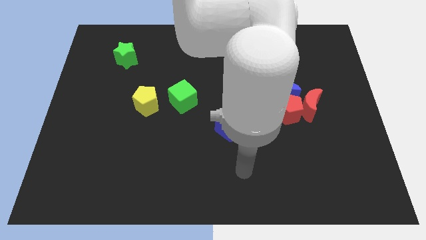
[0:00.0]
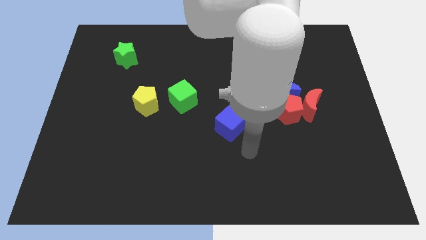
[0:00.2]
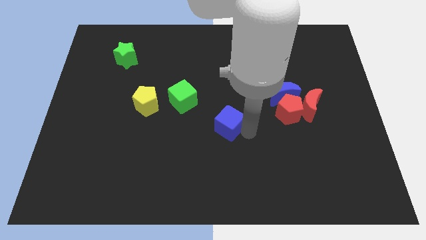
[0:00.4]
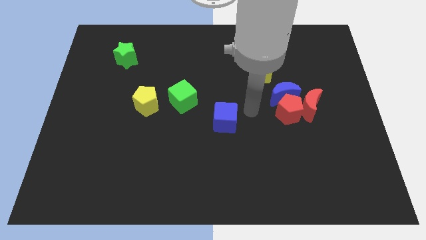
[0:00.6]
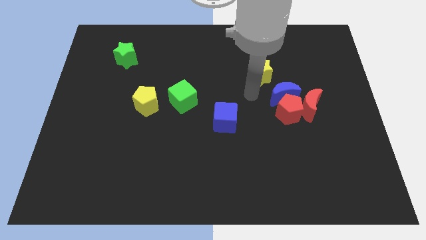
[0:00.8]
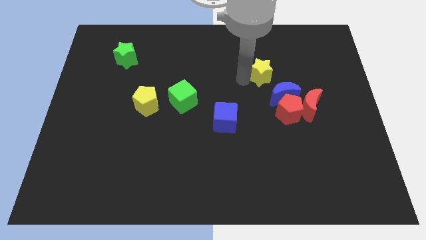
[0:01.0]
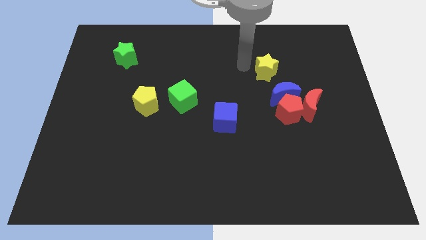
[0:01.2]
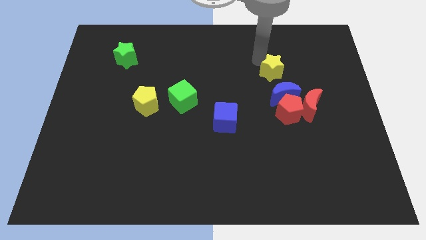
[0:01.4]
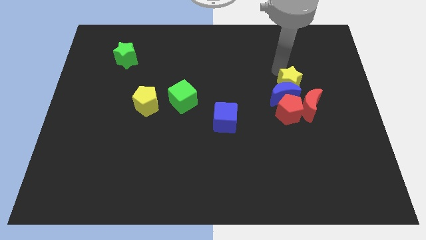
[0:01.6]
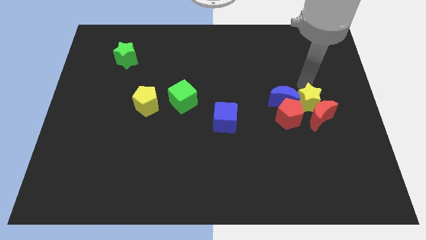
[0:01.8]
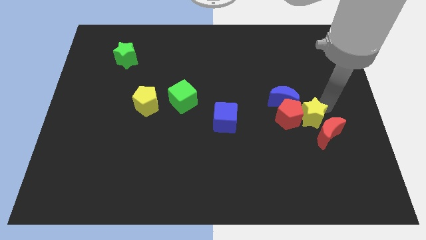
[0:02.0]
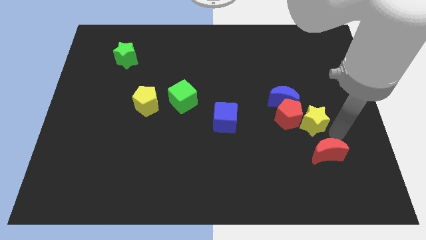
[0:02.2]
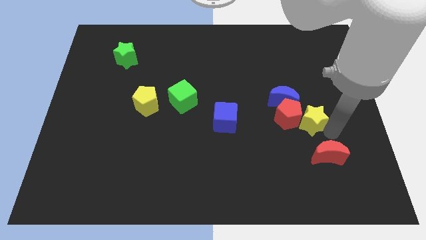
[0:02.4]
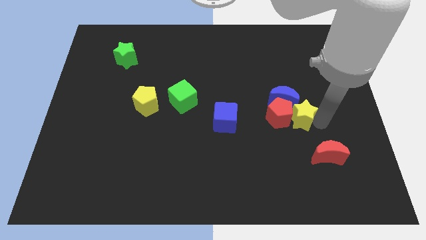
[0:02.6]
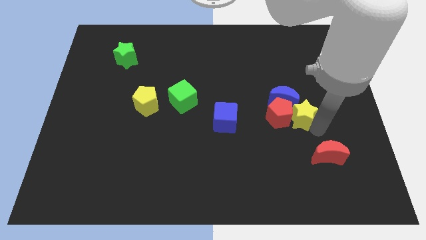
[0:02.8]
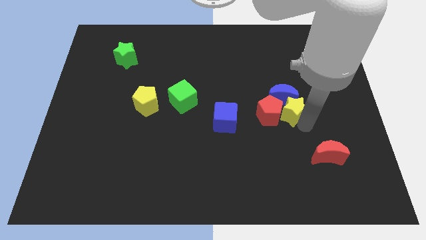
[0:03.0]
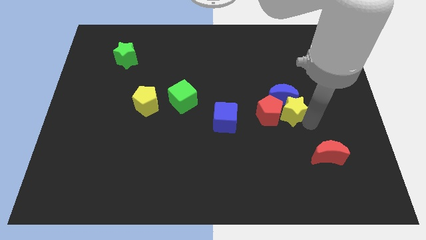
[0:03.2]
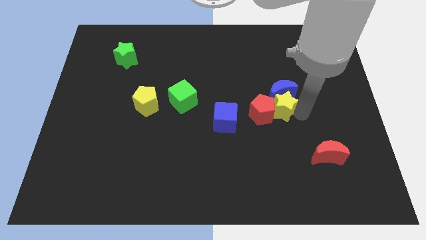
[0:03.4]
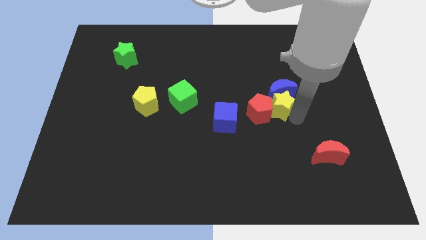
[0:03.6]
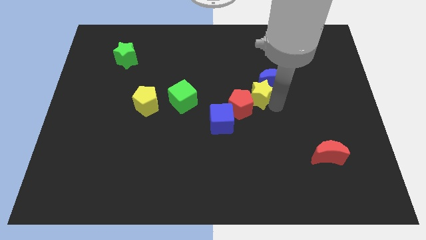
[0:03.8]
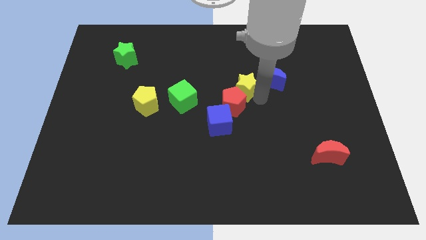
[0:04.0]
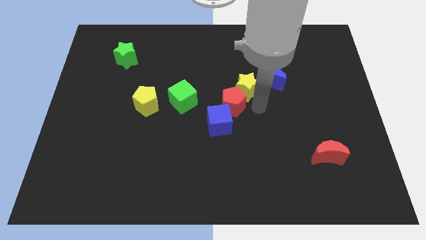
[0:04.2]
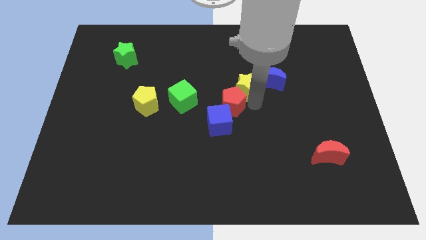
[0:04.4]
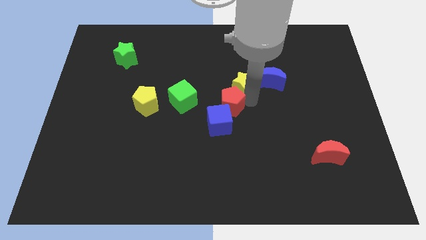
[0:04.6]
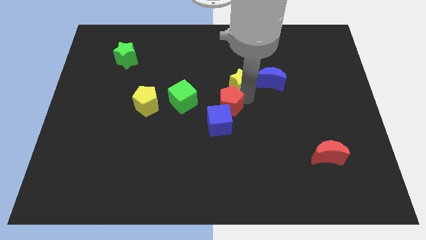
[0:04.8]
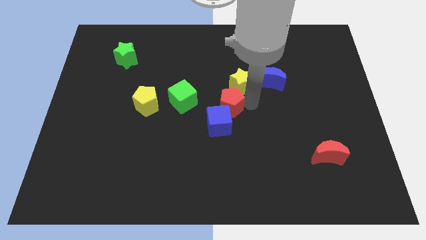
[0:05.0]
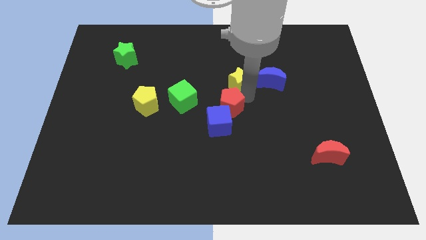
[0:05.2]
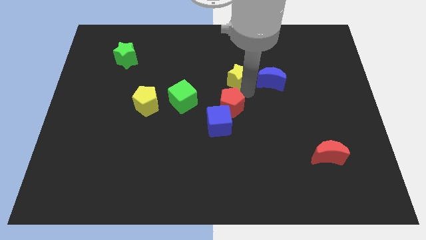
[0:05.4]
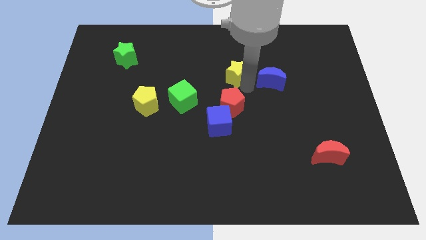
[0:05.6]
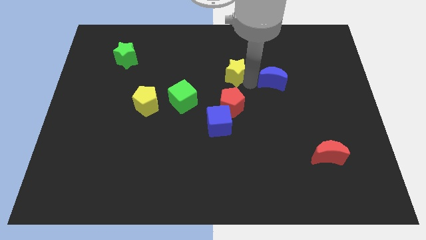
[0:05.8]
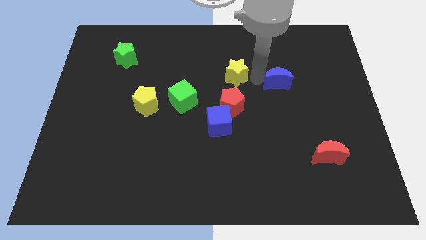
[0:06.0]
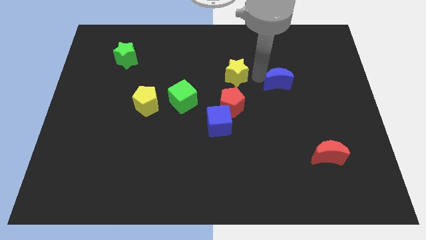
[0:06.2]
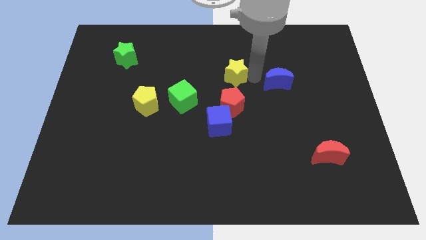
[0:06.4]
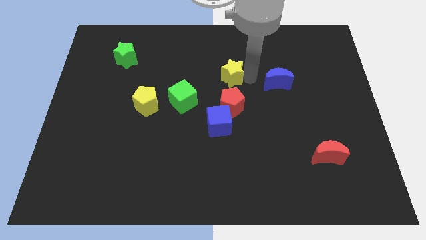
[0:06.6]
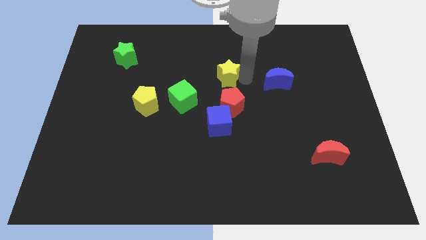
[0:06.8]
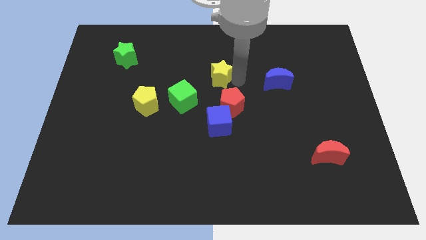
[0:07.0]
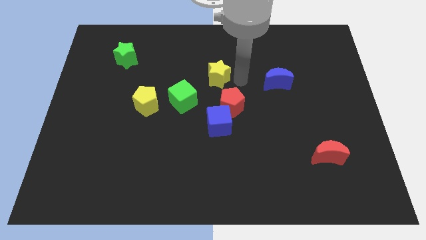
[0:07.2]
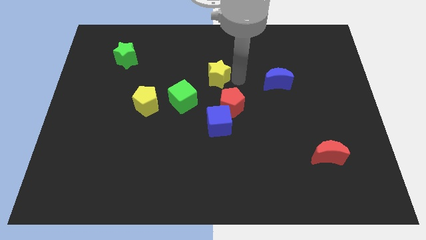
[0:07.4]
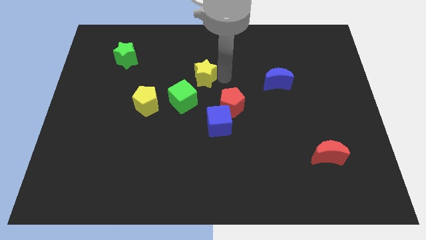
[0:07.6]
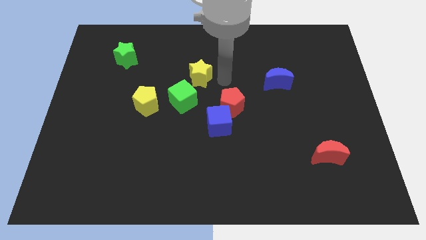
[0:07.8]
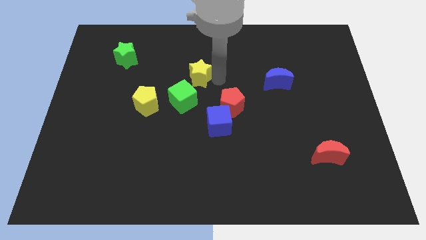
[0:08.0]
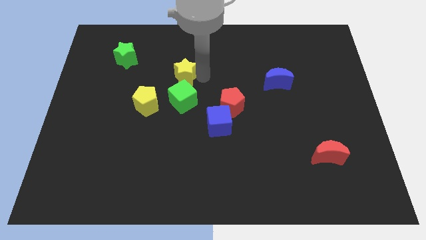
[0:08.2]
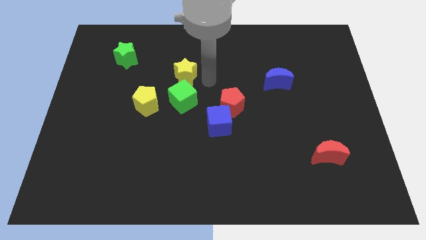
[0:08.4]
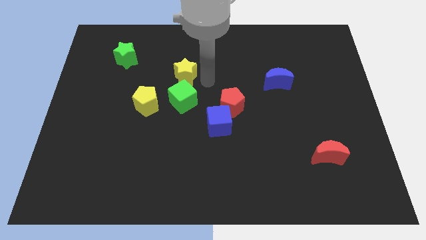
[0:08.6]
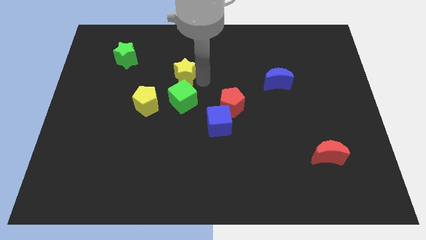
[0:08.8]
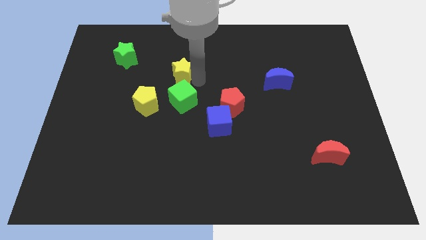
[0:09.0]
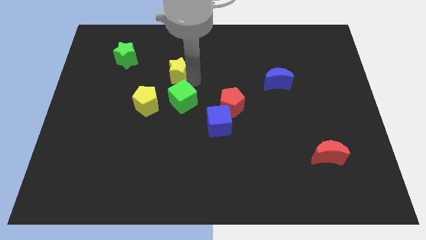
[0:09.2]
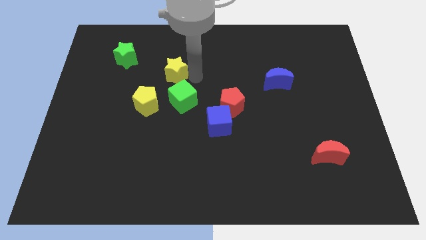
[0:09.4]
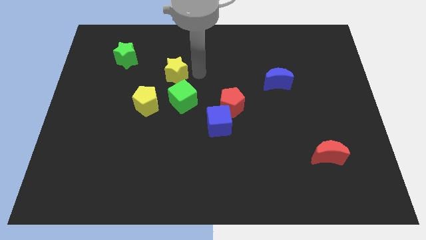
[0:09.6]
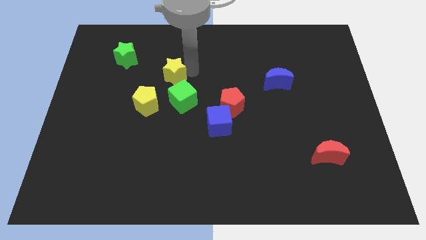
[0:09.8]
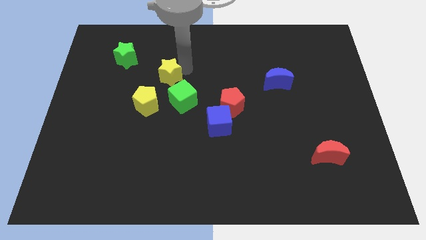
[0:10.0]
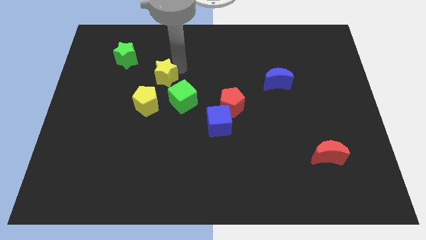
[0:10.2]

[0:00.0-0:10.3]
move the yellow star to the bottom right of the green star

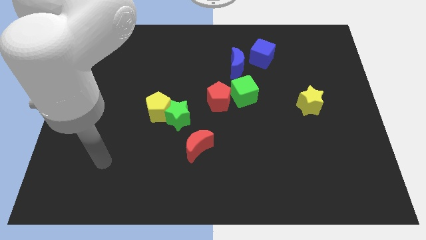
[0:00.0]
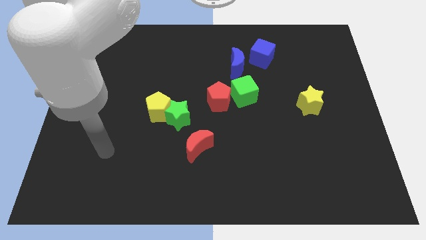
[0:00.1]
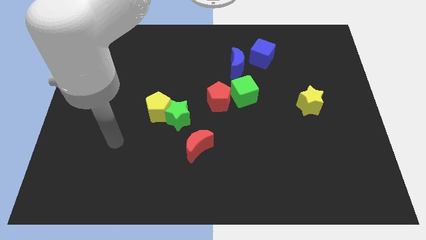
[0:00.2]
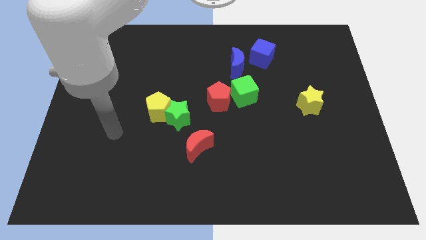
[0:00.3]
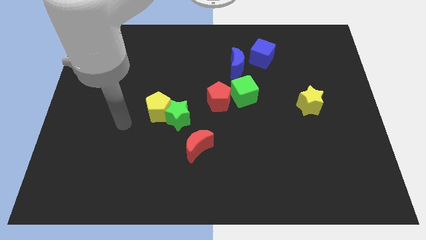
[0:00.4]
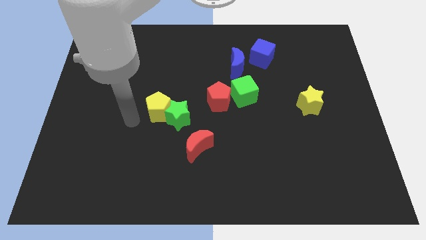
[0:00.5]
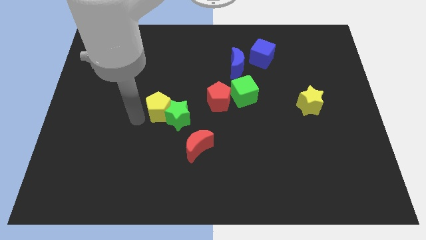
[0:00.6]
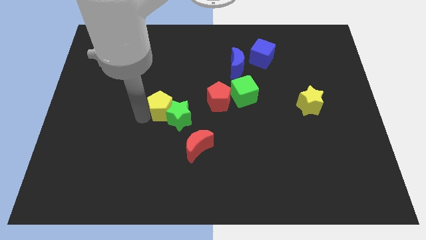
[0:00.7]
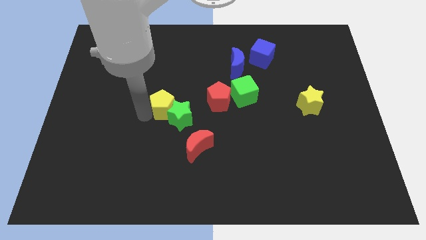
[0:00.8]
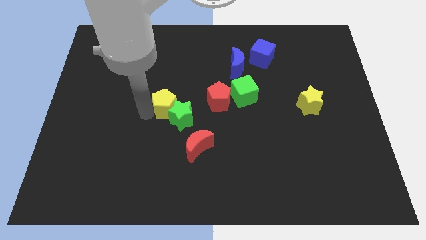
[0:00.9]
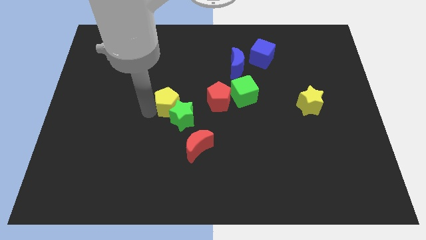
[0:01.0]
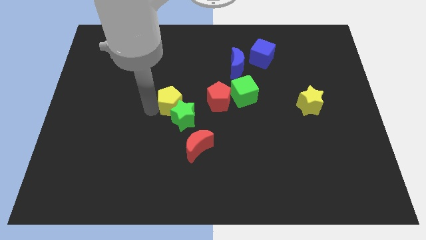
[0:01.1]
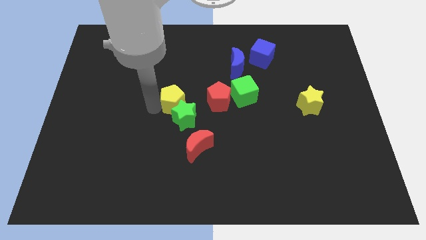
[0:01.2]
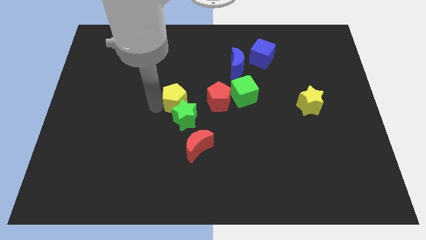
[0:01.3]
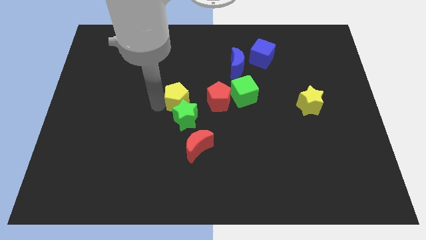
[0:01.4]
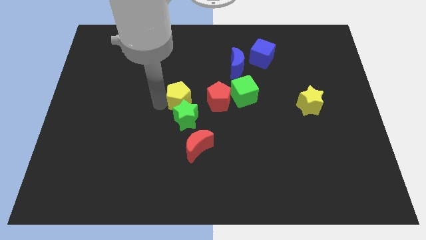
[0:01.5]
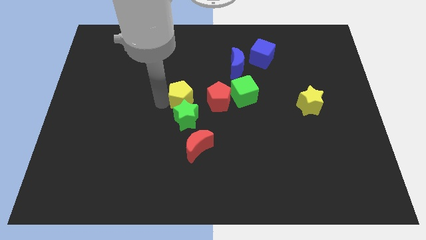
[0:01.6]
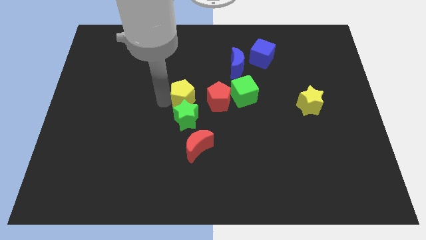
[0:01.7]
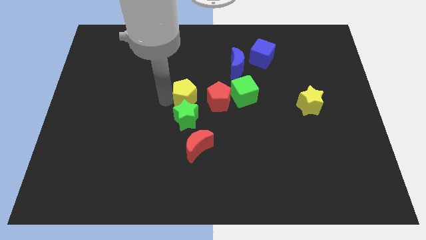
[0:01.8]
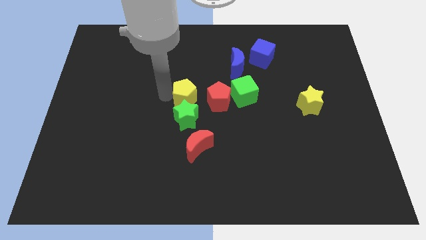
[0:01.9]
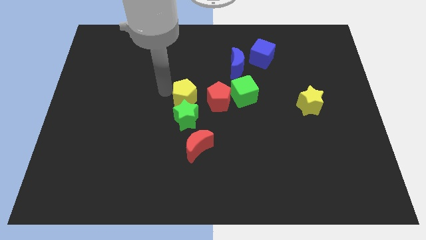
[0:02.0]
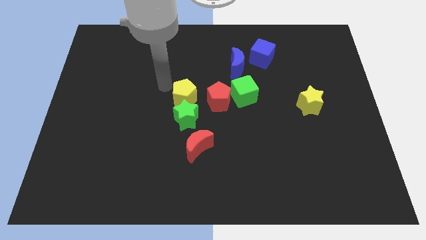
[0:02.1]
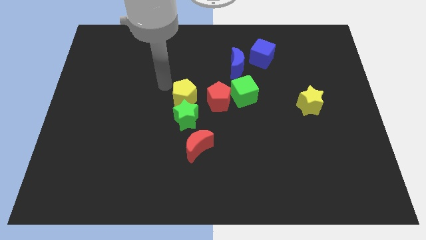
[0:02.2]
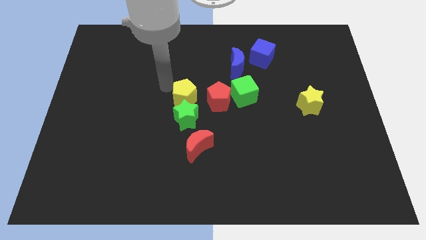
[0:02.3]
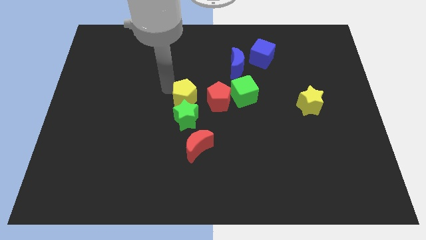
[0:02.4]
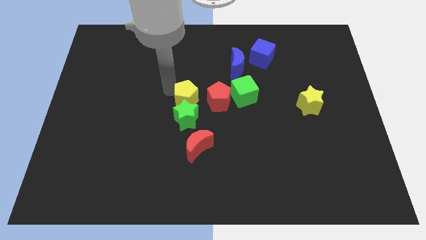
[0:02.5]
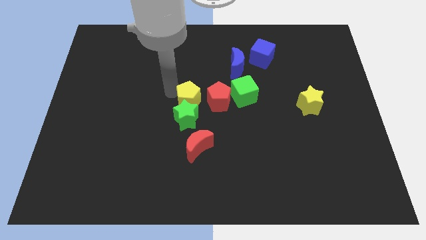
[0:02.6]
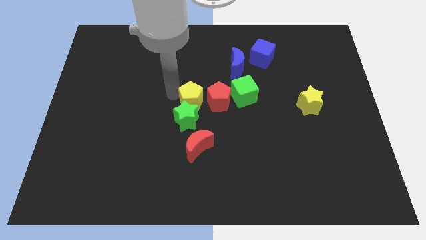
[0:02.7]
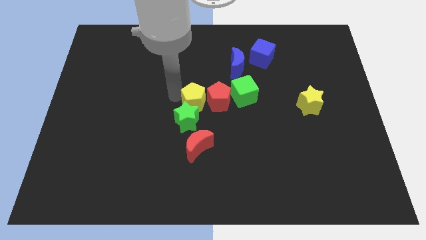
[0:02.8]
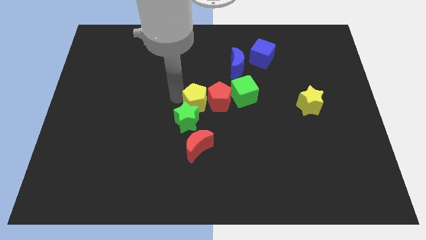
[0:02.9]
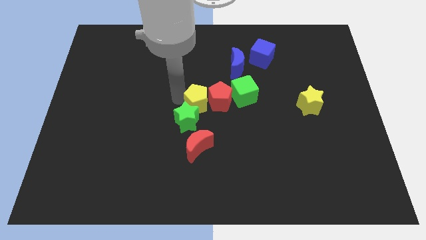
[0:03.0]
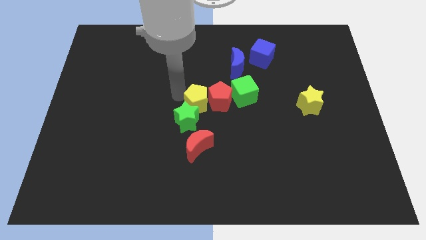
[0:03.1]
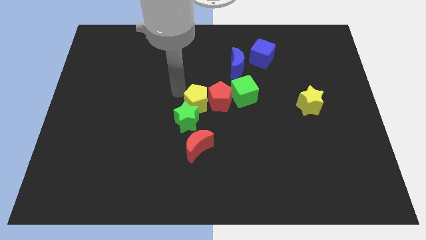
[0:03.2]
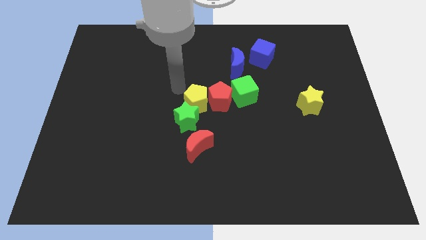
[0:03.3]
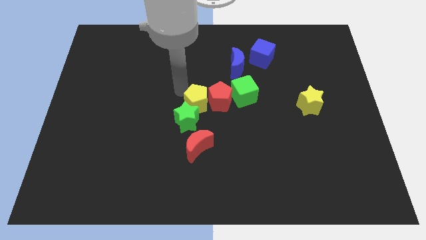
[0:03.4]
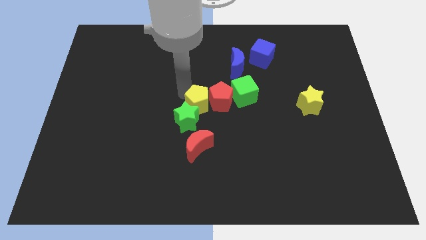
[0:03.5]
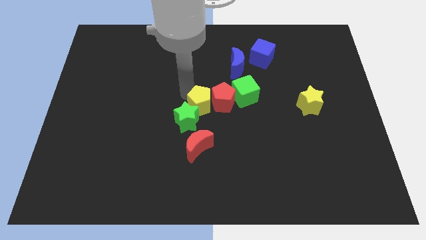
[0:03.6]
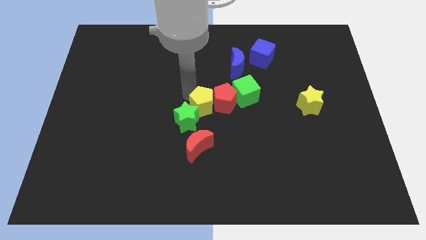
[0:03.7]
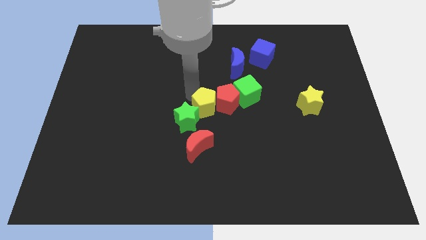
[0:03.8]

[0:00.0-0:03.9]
slide the yellow pentagon to the bottom left of the green cube
